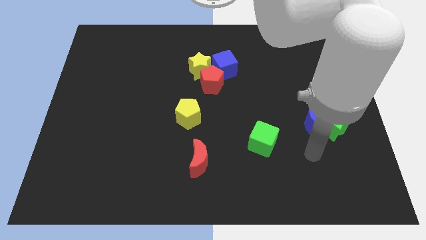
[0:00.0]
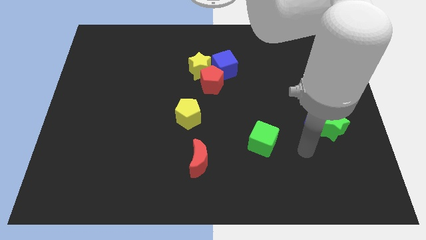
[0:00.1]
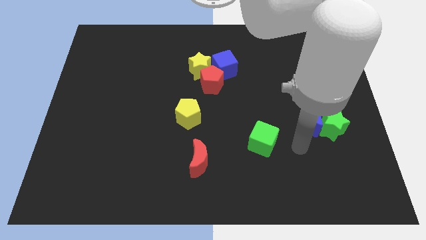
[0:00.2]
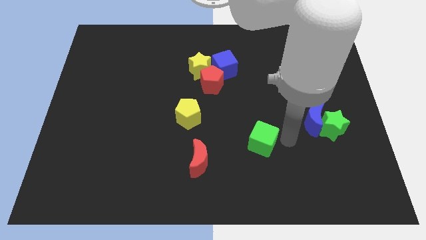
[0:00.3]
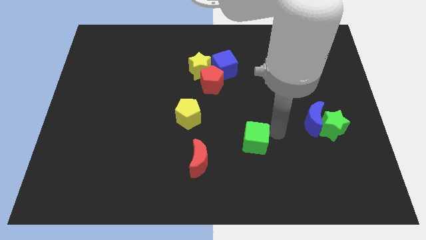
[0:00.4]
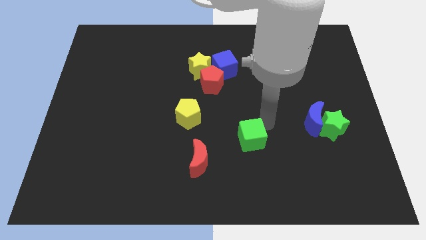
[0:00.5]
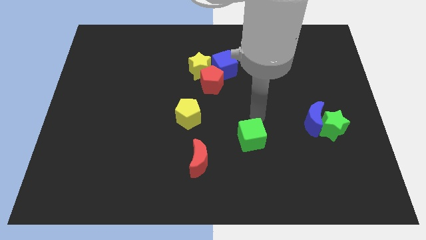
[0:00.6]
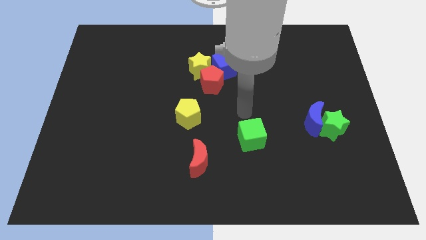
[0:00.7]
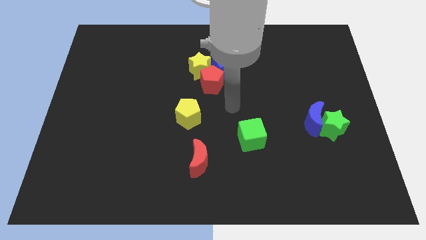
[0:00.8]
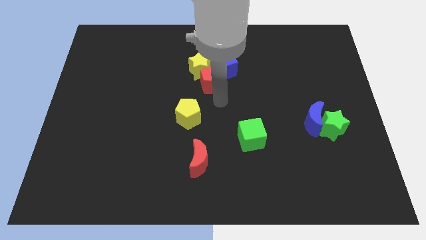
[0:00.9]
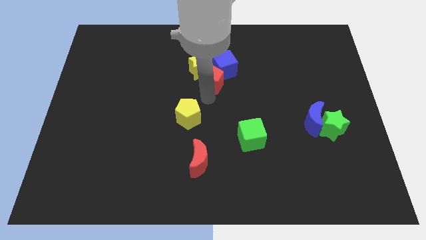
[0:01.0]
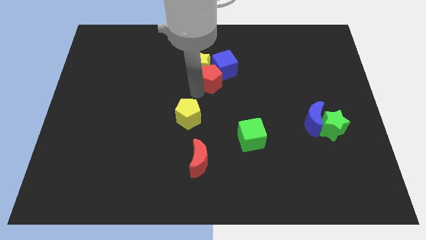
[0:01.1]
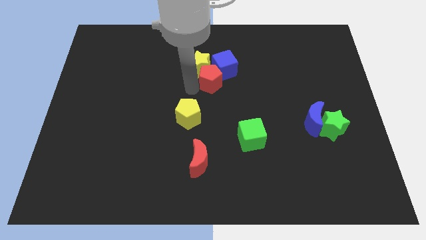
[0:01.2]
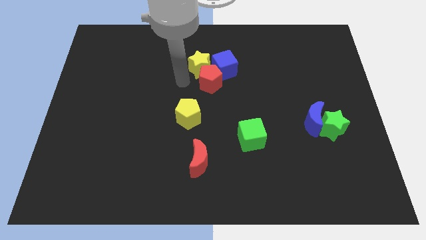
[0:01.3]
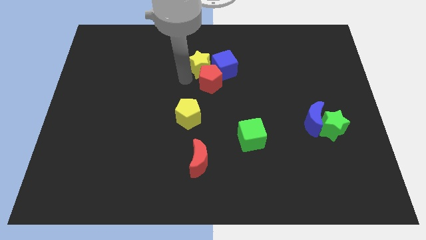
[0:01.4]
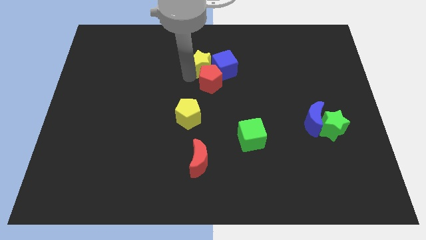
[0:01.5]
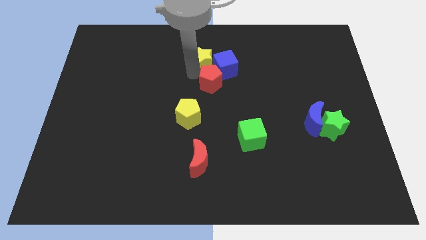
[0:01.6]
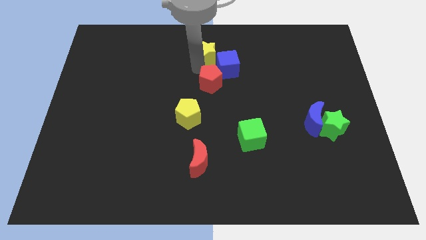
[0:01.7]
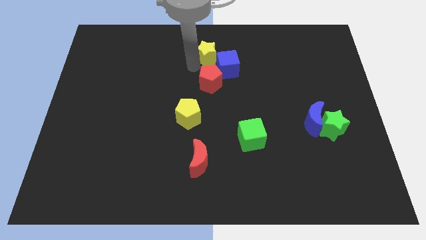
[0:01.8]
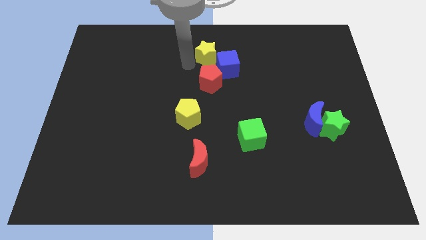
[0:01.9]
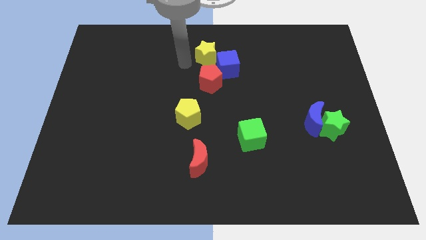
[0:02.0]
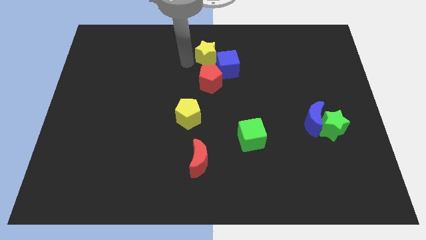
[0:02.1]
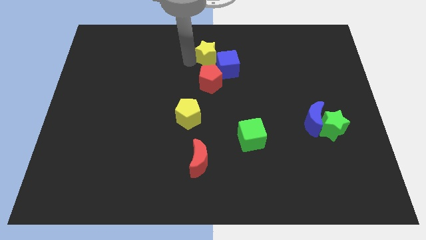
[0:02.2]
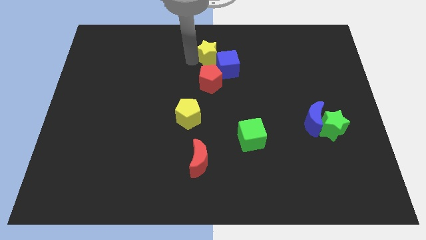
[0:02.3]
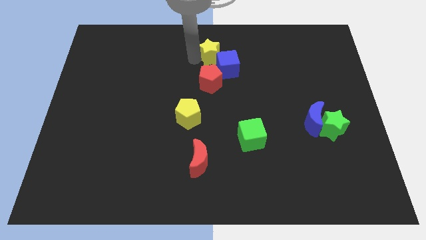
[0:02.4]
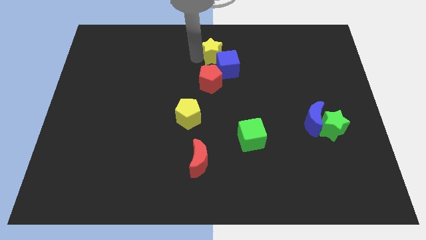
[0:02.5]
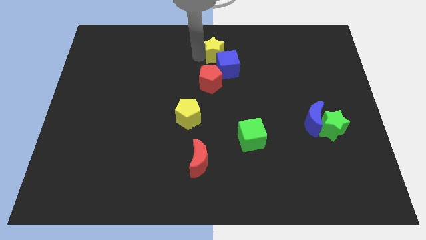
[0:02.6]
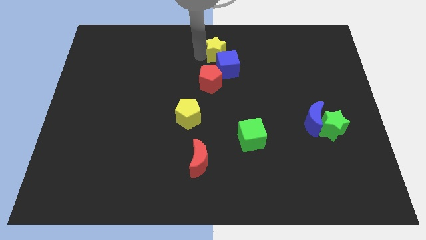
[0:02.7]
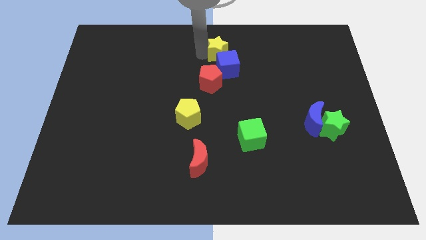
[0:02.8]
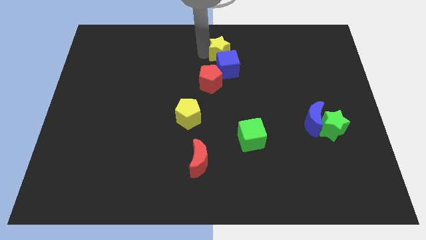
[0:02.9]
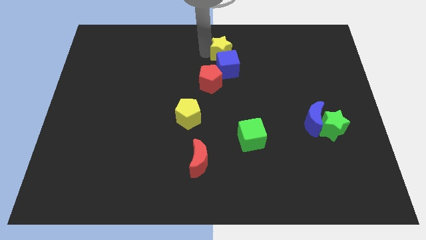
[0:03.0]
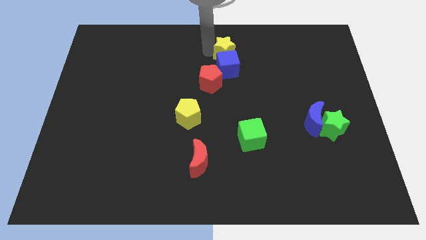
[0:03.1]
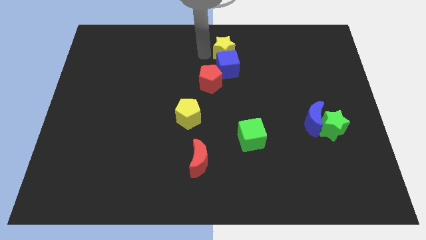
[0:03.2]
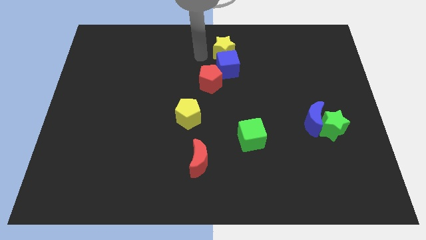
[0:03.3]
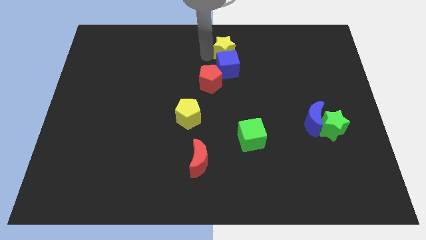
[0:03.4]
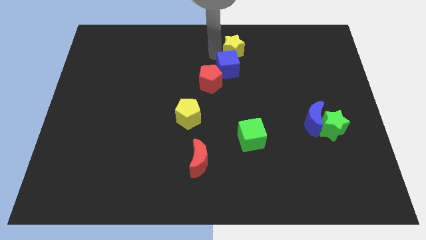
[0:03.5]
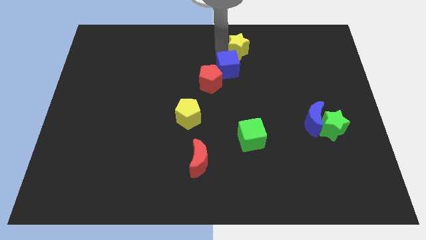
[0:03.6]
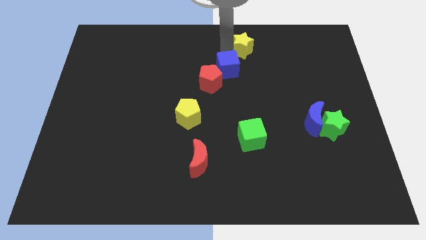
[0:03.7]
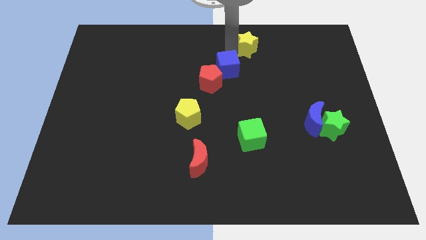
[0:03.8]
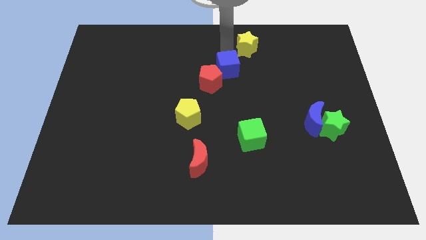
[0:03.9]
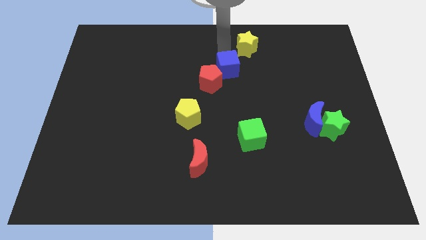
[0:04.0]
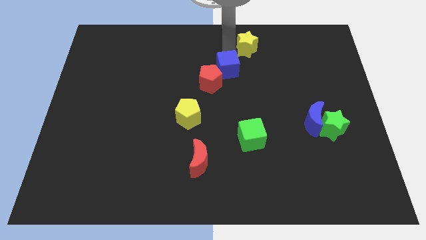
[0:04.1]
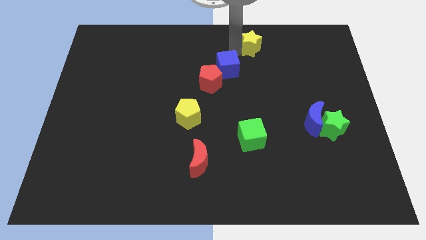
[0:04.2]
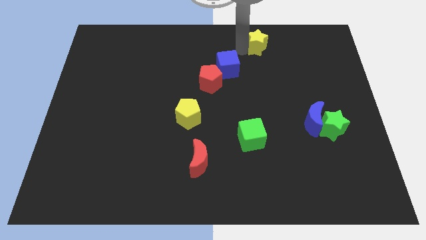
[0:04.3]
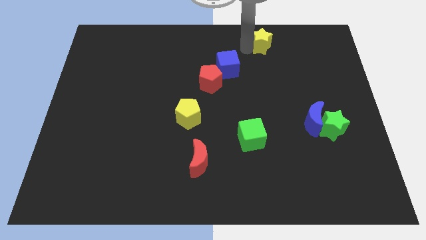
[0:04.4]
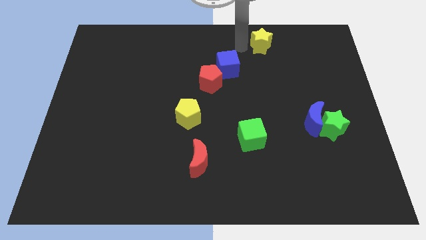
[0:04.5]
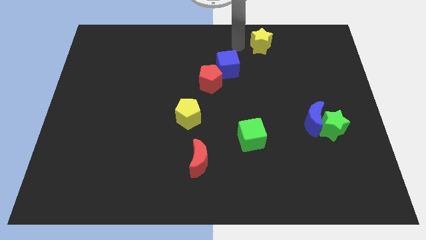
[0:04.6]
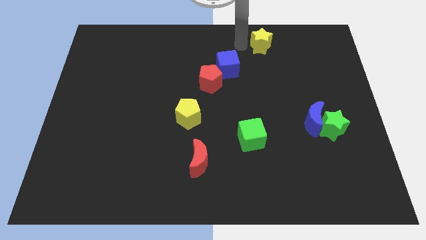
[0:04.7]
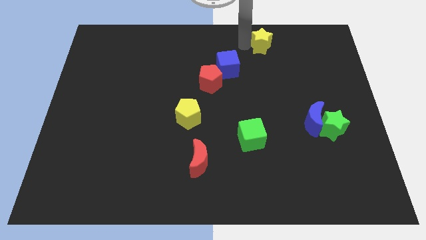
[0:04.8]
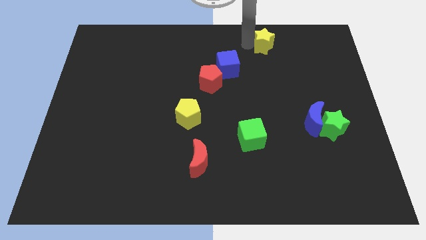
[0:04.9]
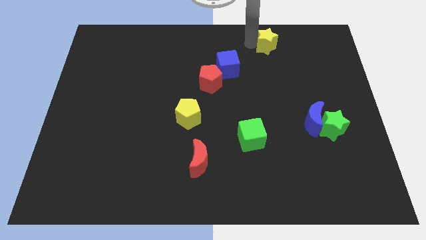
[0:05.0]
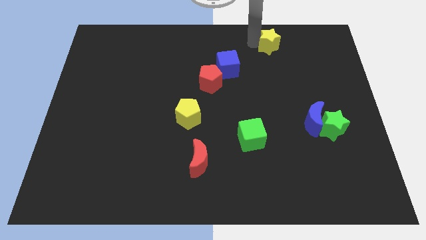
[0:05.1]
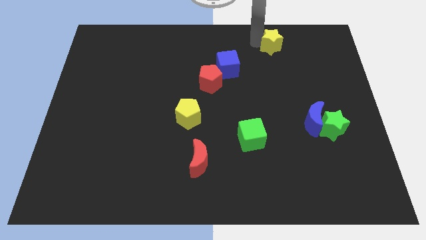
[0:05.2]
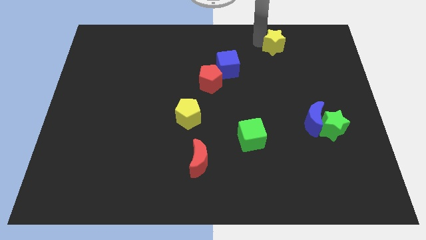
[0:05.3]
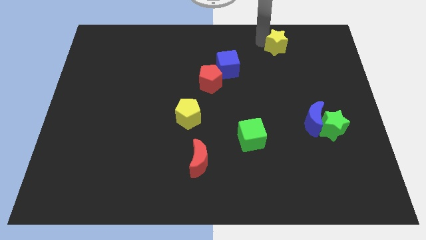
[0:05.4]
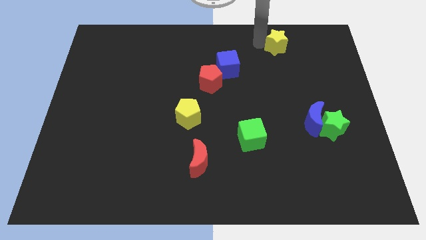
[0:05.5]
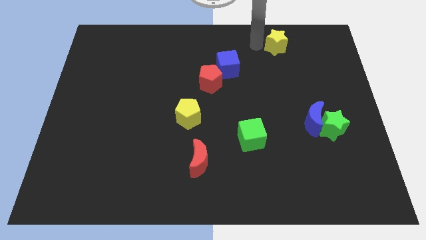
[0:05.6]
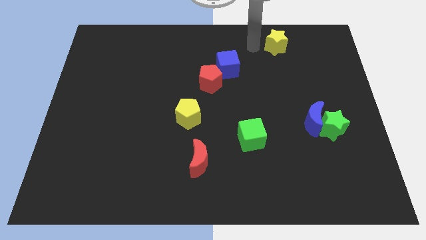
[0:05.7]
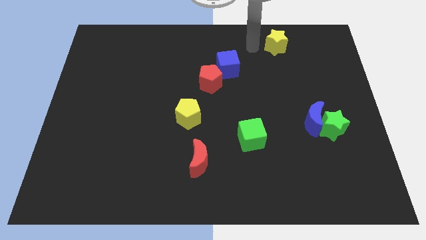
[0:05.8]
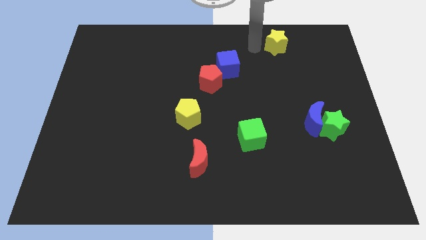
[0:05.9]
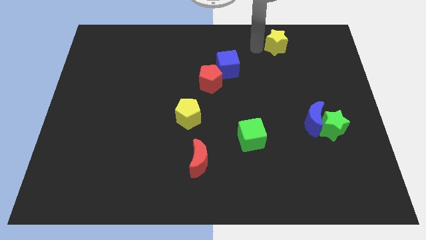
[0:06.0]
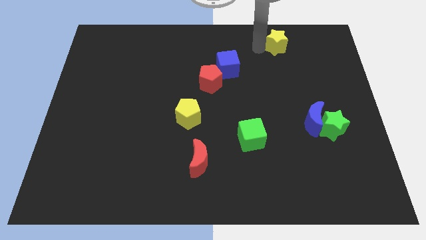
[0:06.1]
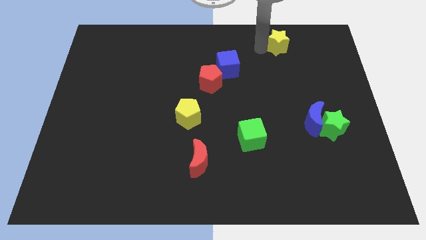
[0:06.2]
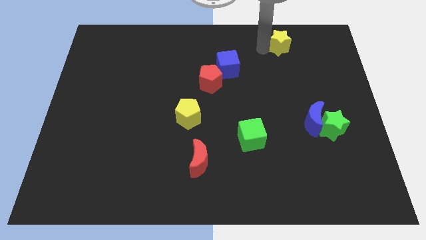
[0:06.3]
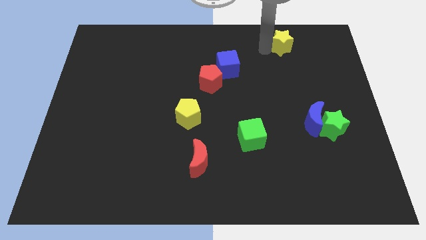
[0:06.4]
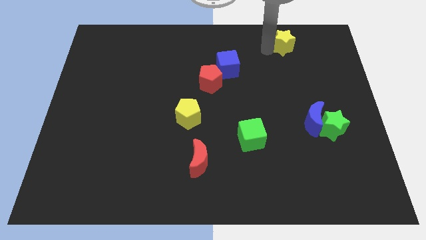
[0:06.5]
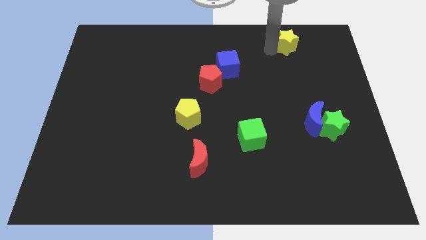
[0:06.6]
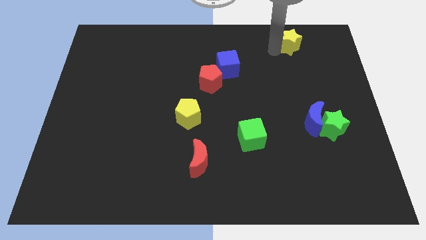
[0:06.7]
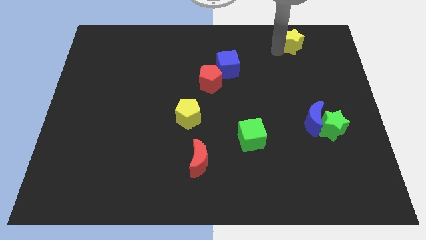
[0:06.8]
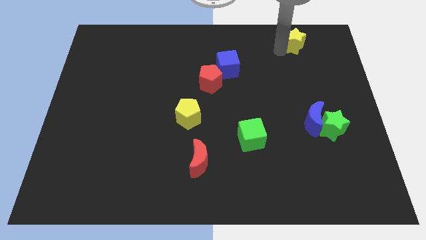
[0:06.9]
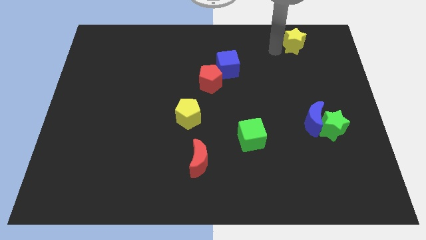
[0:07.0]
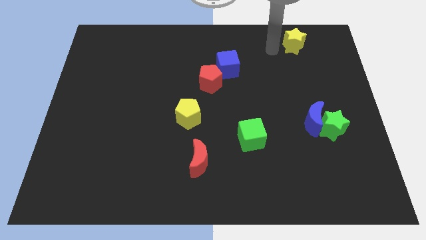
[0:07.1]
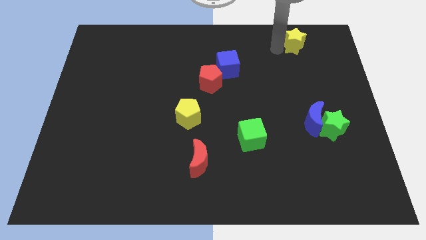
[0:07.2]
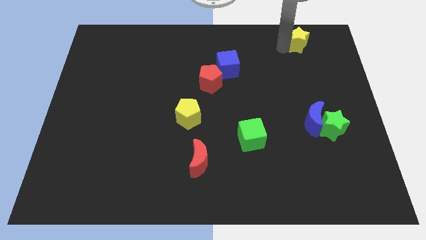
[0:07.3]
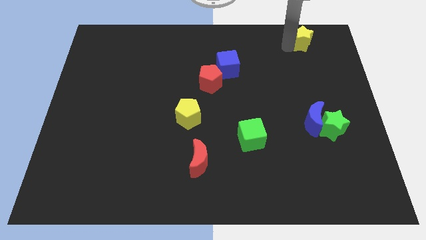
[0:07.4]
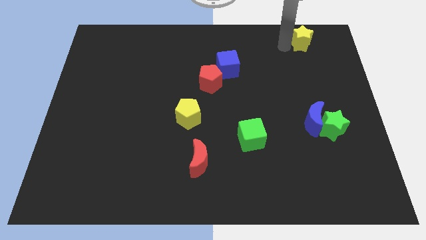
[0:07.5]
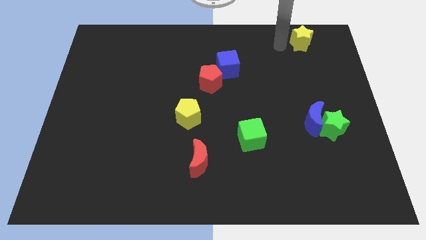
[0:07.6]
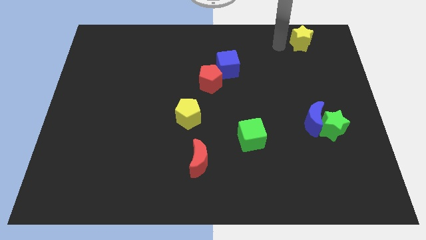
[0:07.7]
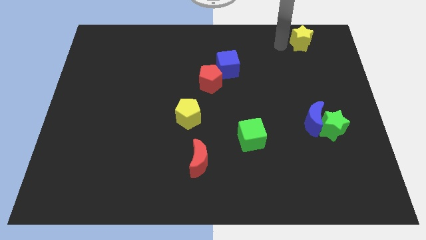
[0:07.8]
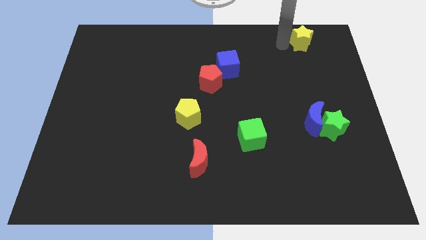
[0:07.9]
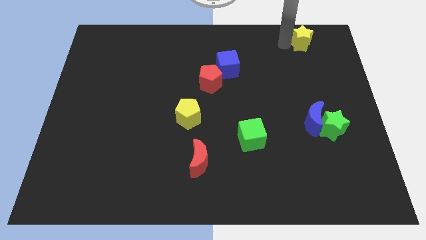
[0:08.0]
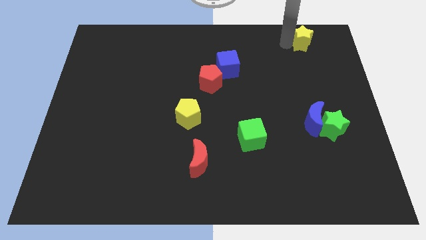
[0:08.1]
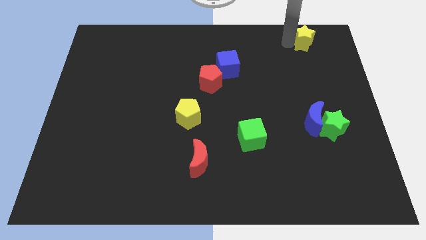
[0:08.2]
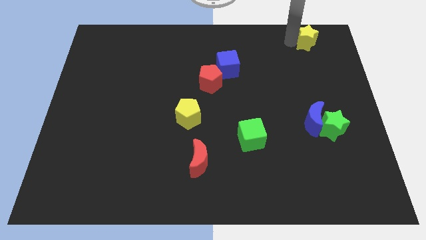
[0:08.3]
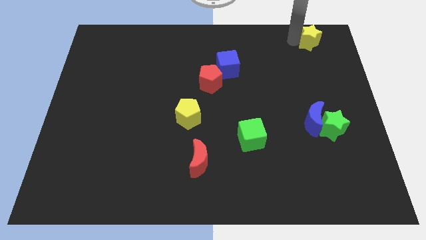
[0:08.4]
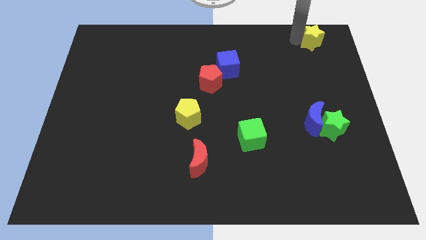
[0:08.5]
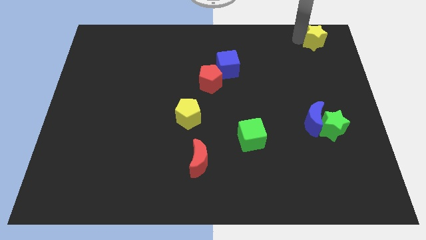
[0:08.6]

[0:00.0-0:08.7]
slide the yellow star to the top right
